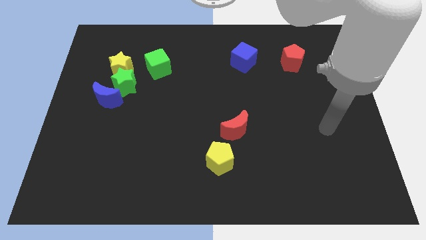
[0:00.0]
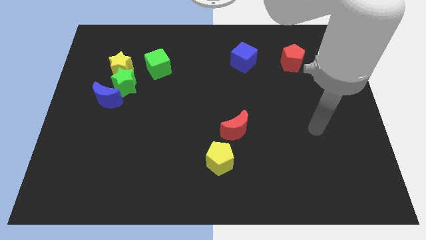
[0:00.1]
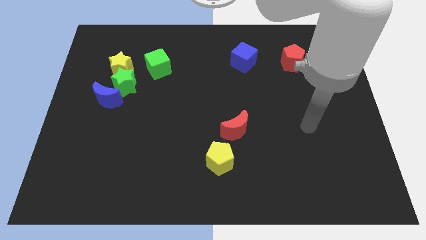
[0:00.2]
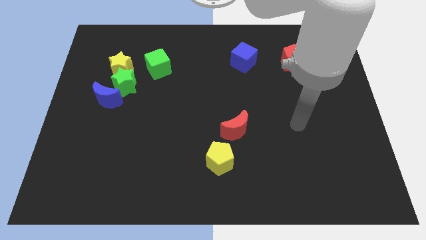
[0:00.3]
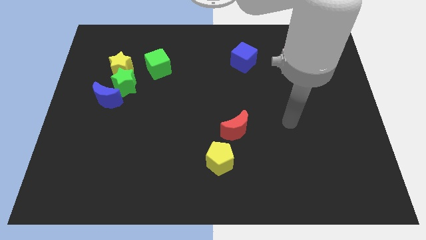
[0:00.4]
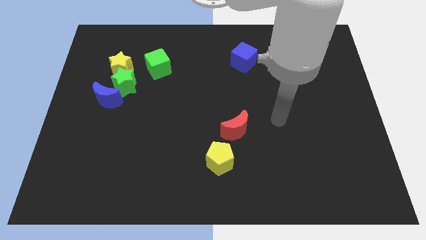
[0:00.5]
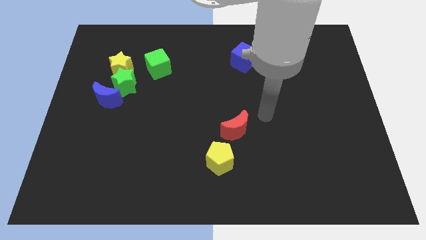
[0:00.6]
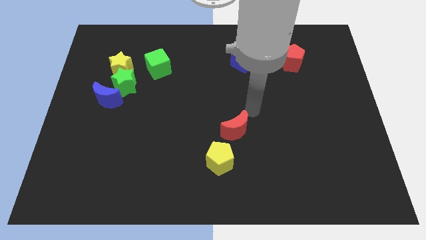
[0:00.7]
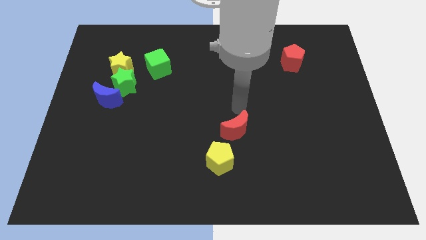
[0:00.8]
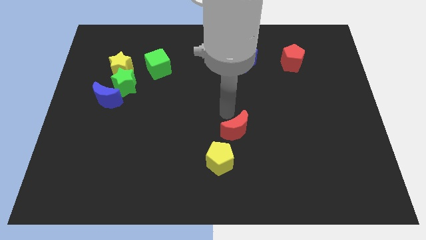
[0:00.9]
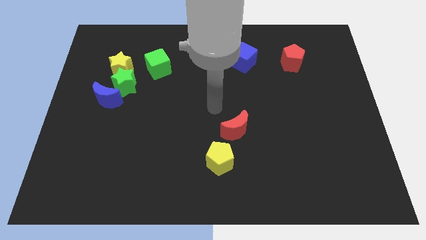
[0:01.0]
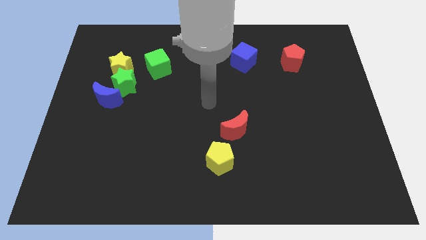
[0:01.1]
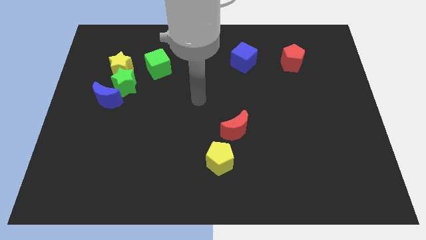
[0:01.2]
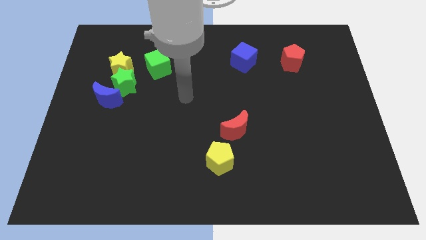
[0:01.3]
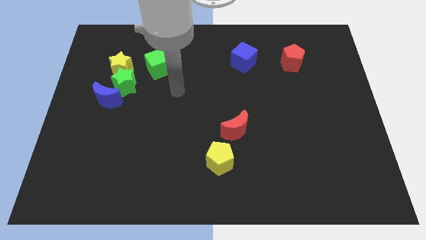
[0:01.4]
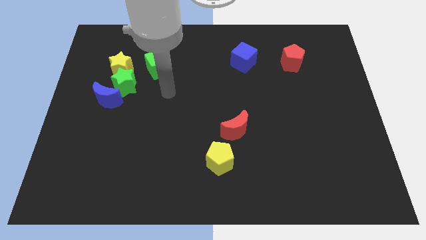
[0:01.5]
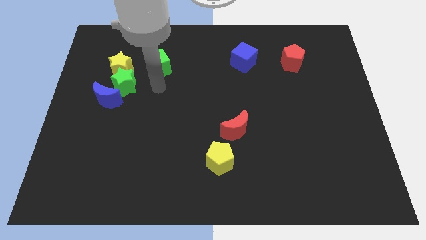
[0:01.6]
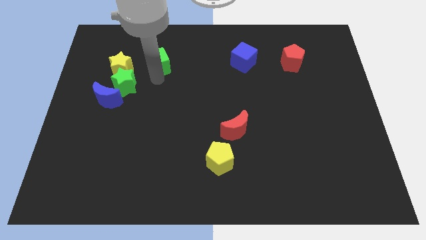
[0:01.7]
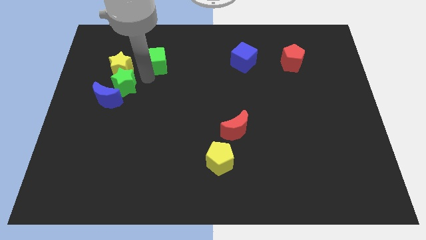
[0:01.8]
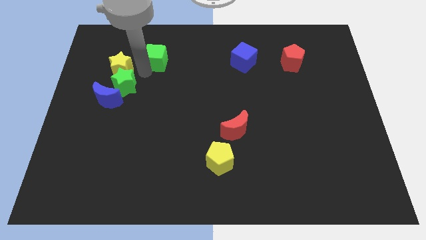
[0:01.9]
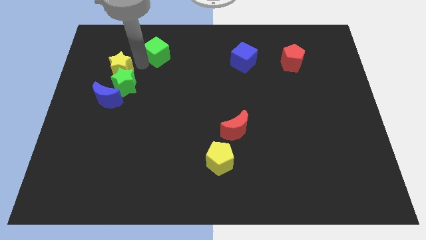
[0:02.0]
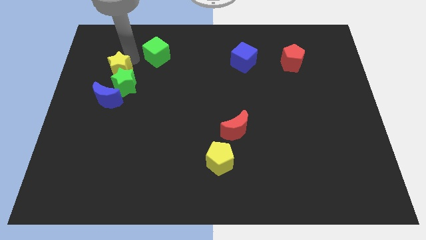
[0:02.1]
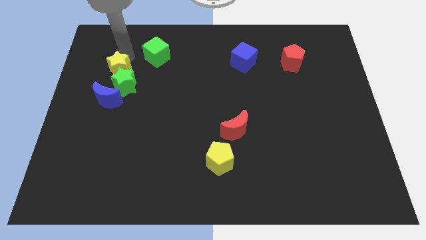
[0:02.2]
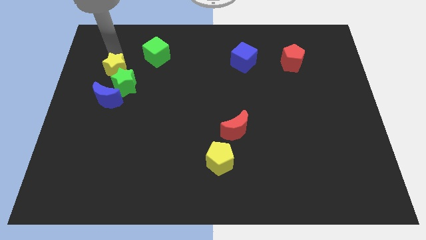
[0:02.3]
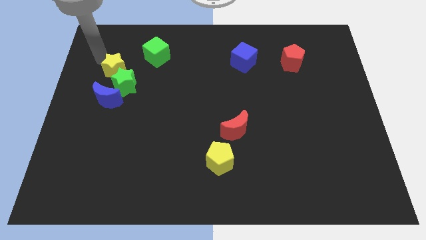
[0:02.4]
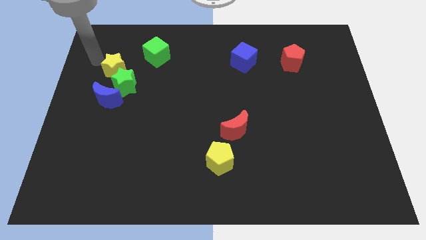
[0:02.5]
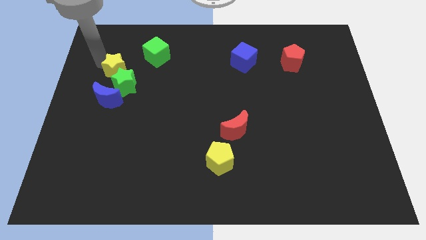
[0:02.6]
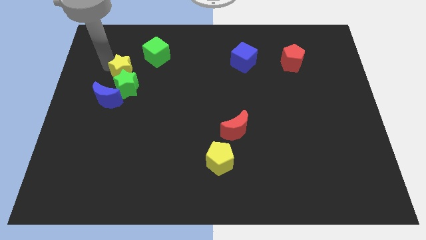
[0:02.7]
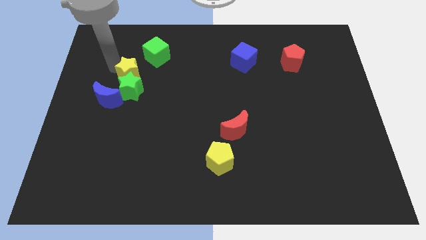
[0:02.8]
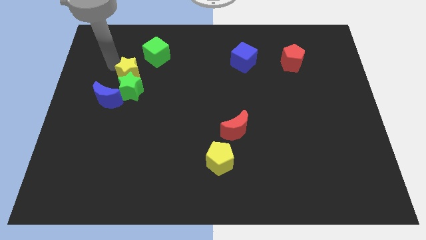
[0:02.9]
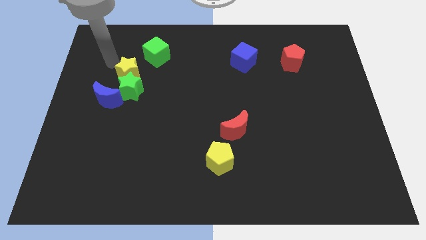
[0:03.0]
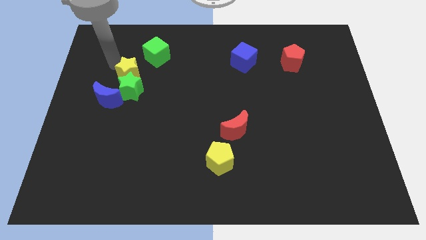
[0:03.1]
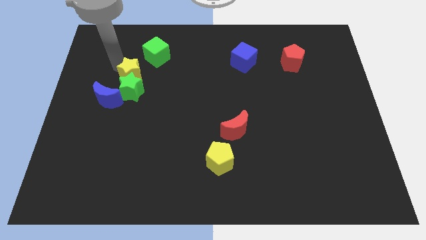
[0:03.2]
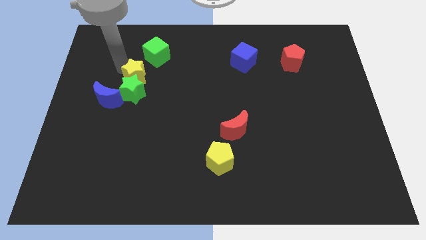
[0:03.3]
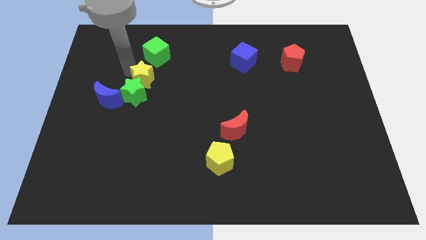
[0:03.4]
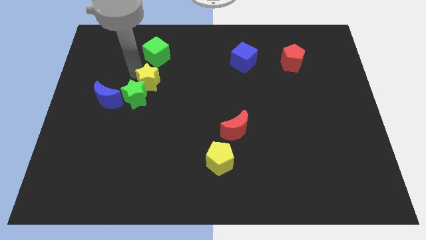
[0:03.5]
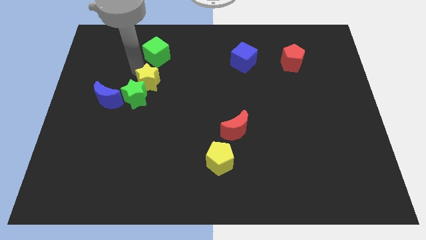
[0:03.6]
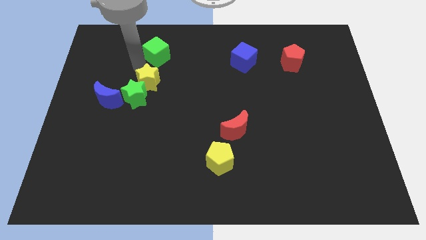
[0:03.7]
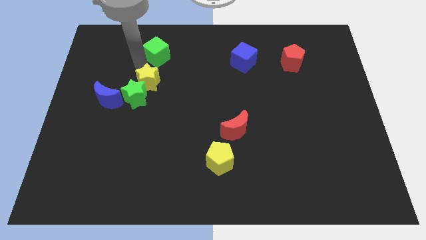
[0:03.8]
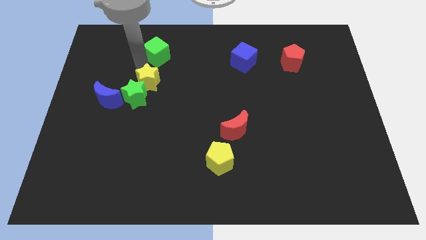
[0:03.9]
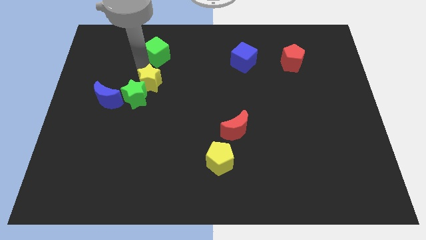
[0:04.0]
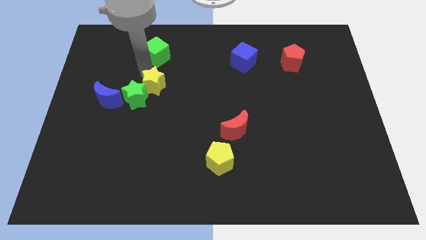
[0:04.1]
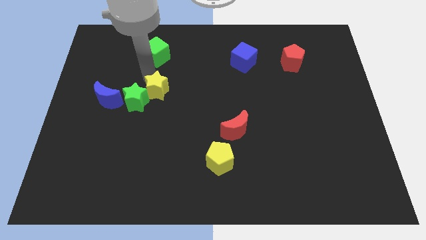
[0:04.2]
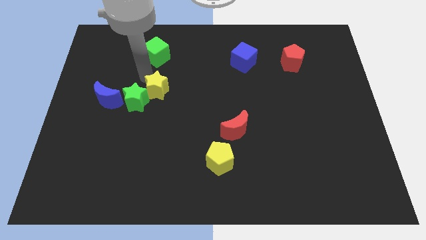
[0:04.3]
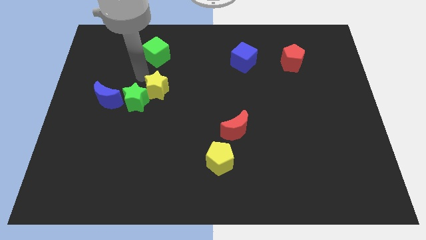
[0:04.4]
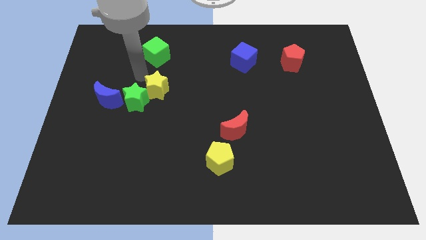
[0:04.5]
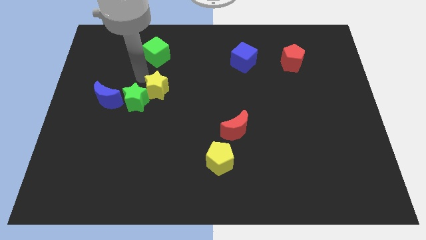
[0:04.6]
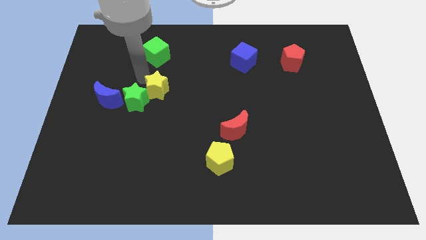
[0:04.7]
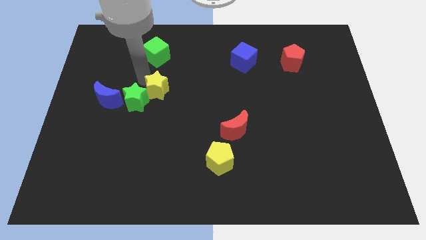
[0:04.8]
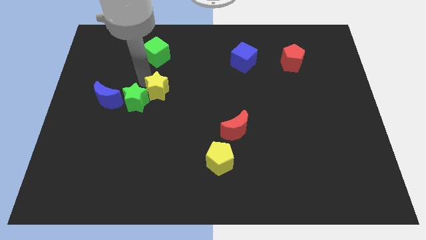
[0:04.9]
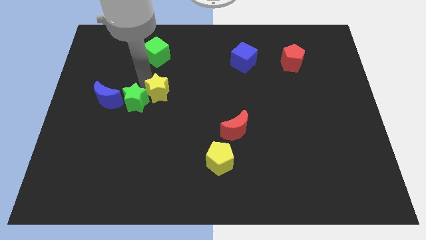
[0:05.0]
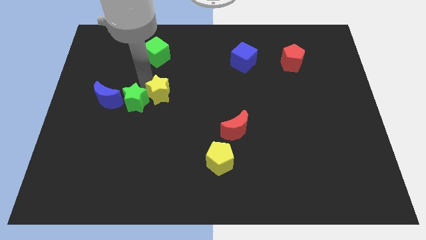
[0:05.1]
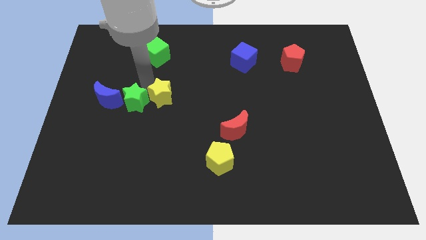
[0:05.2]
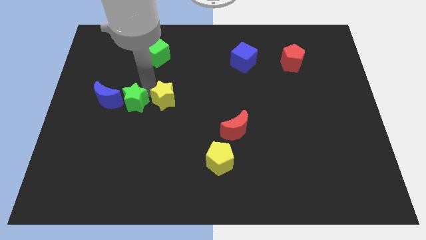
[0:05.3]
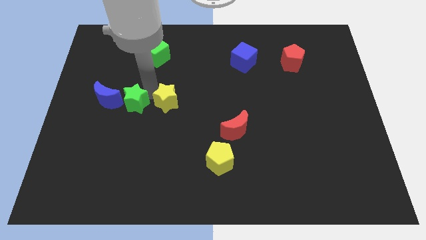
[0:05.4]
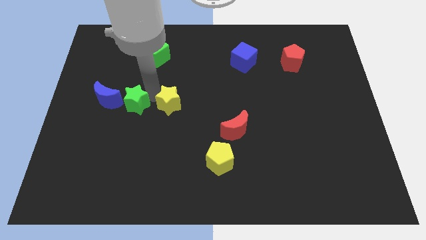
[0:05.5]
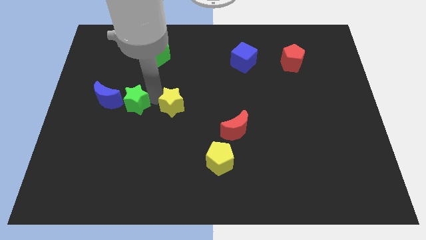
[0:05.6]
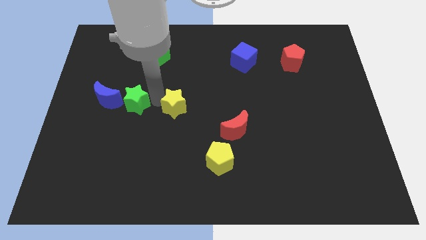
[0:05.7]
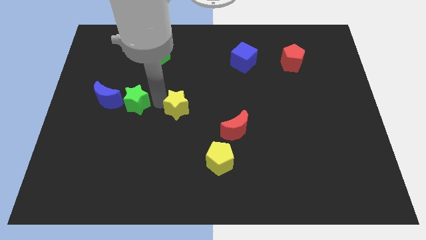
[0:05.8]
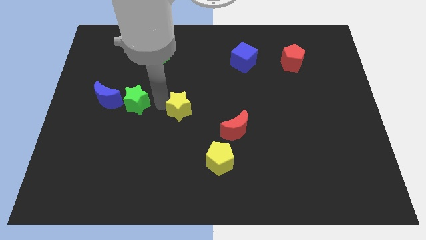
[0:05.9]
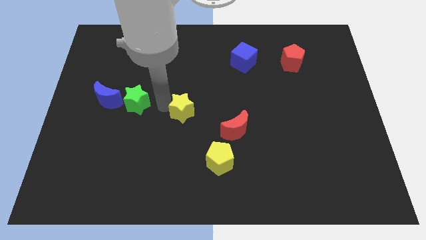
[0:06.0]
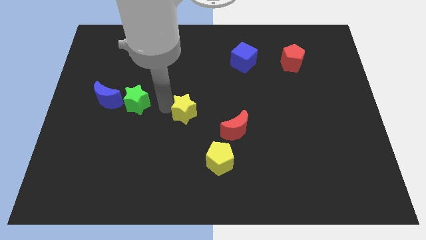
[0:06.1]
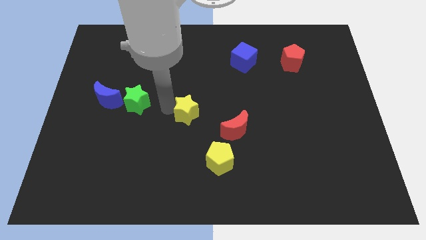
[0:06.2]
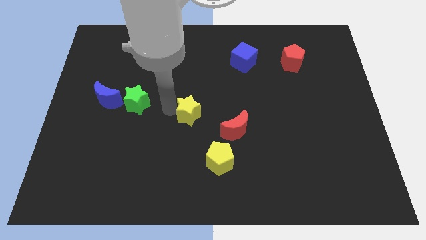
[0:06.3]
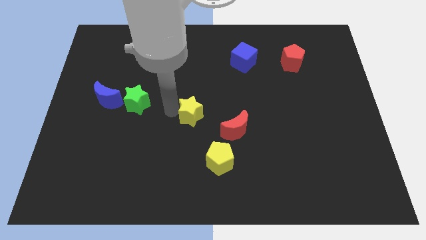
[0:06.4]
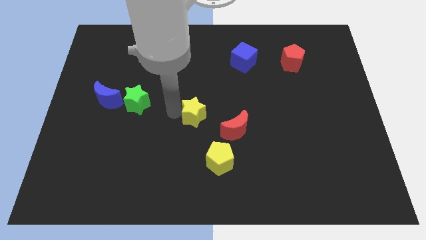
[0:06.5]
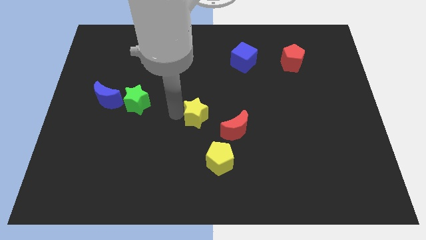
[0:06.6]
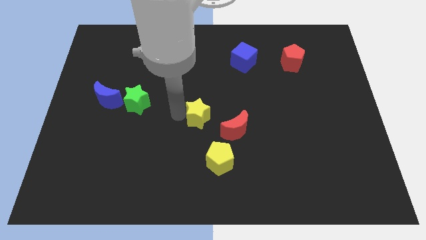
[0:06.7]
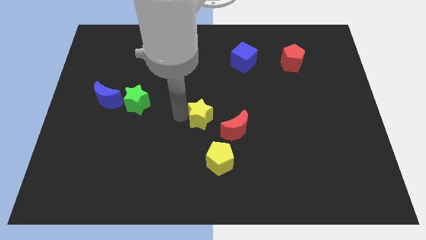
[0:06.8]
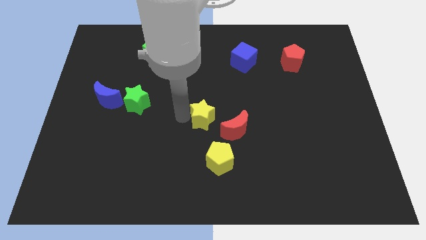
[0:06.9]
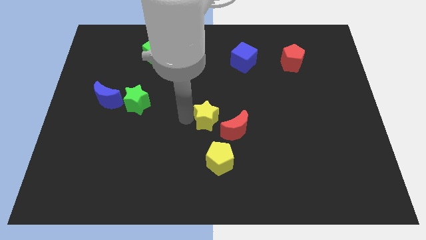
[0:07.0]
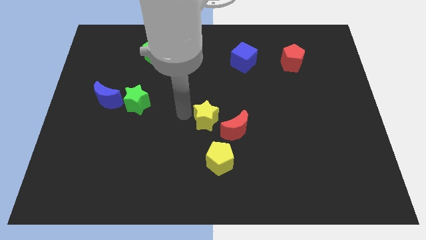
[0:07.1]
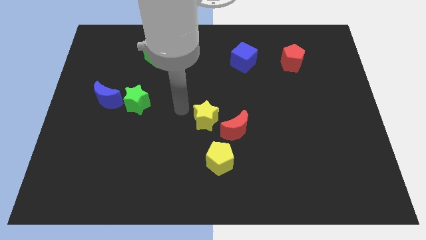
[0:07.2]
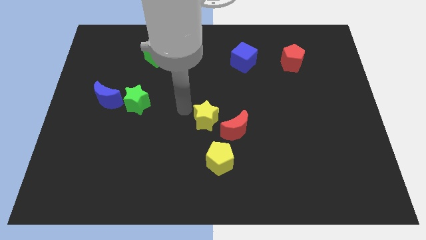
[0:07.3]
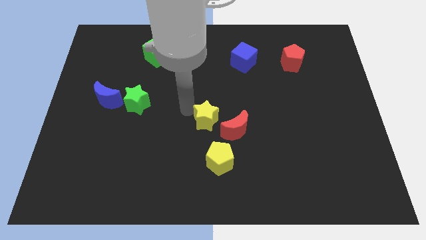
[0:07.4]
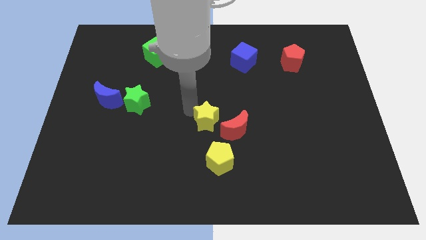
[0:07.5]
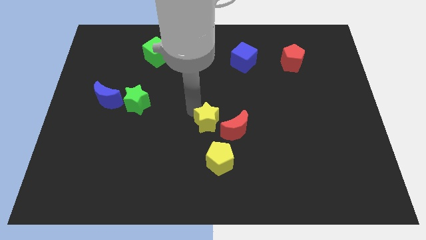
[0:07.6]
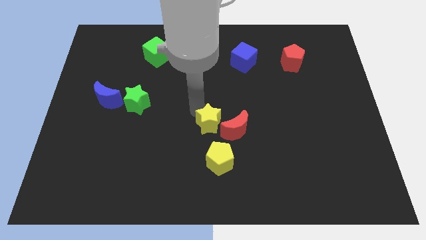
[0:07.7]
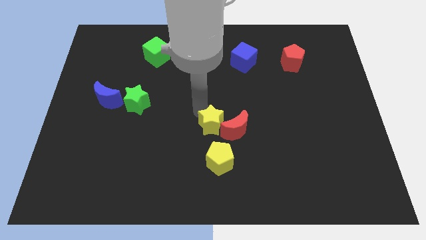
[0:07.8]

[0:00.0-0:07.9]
slide the yellow star towards the red moon
